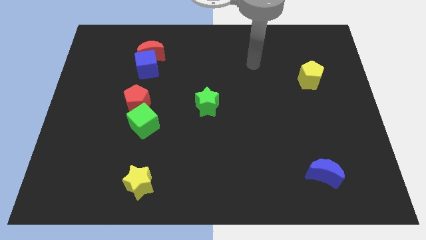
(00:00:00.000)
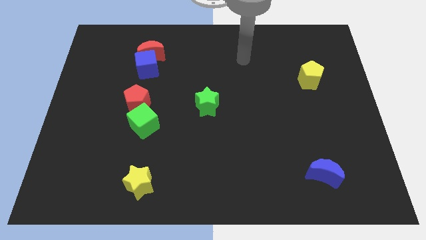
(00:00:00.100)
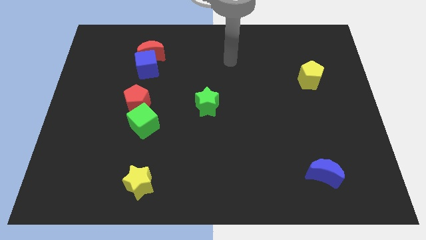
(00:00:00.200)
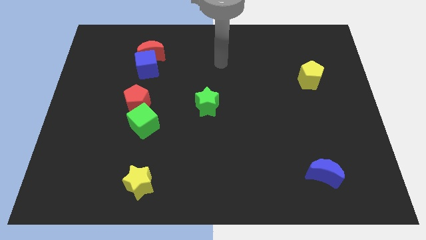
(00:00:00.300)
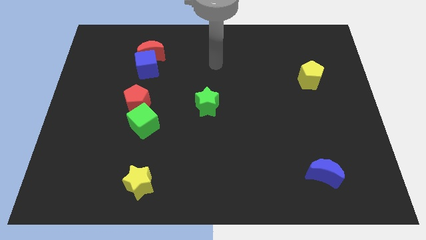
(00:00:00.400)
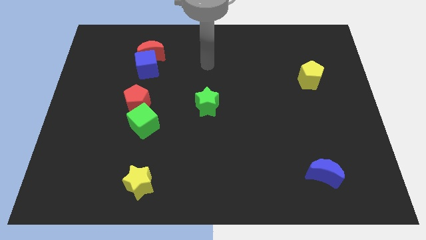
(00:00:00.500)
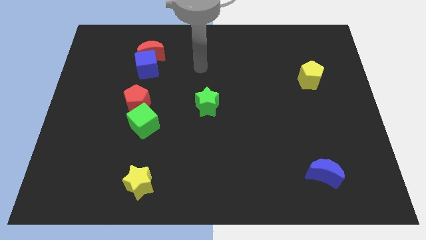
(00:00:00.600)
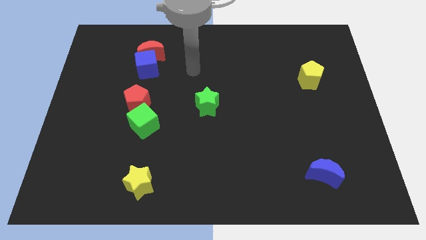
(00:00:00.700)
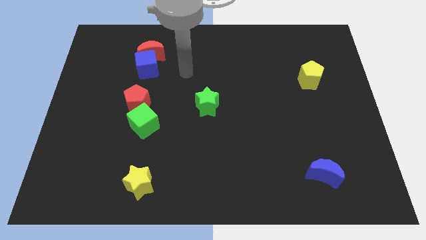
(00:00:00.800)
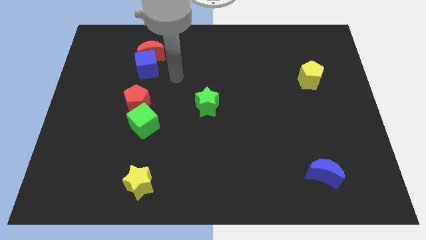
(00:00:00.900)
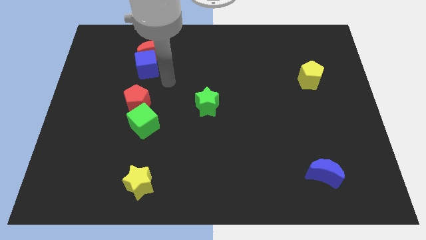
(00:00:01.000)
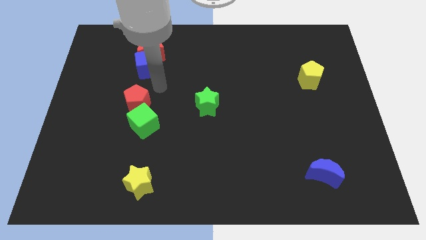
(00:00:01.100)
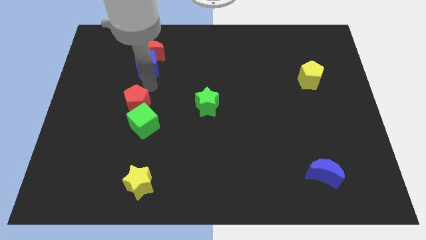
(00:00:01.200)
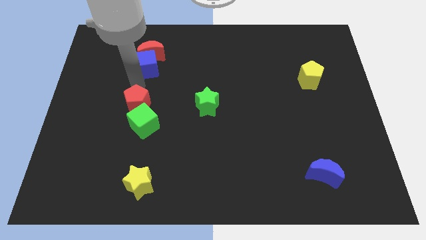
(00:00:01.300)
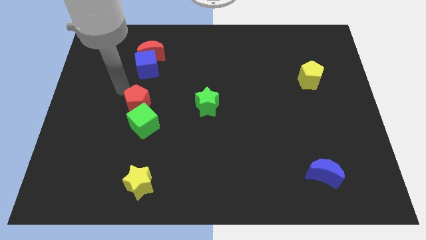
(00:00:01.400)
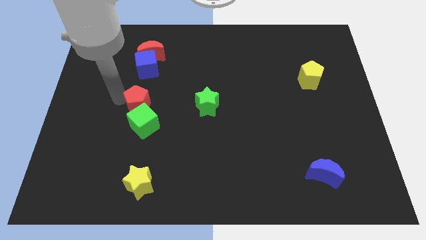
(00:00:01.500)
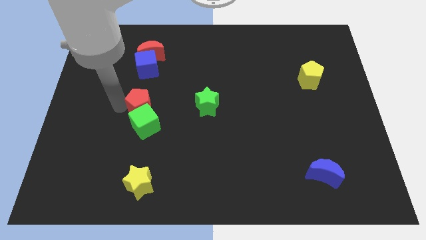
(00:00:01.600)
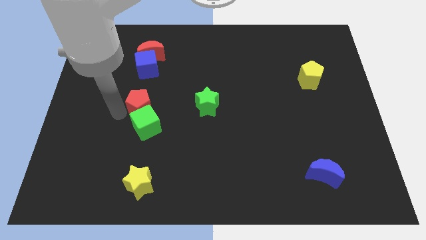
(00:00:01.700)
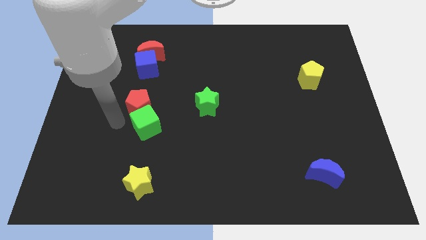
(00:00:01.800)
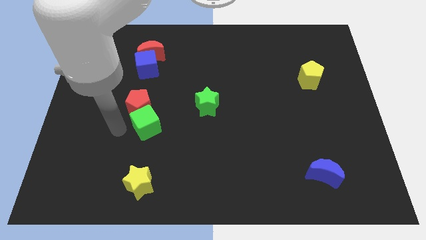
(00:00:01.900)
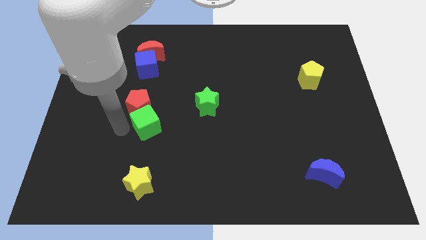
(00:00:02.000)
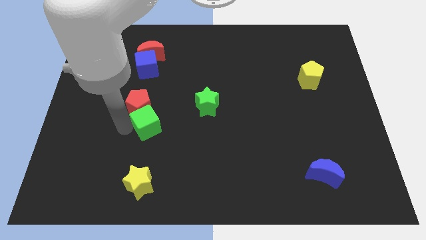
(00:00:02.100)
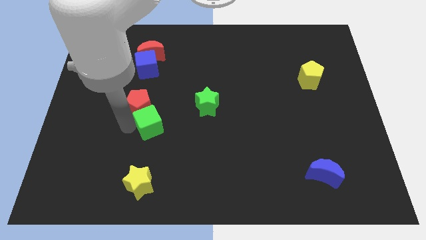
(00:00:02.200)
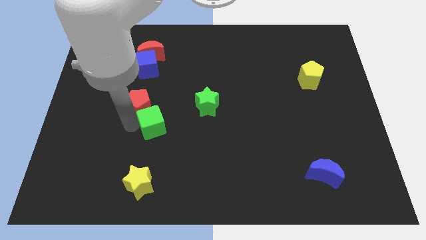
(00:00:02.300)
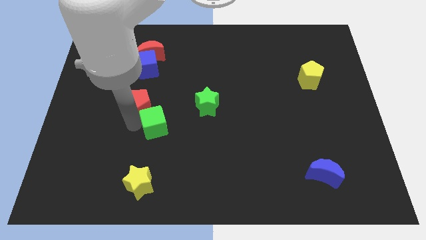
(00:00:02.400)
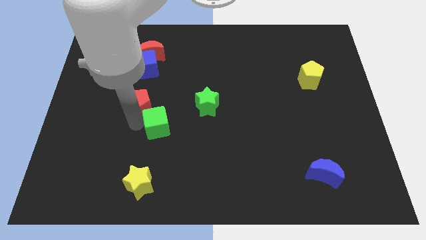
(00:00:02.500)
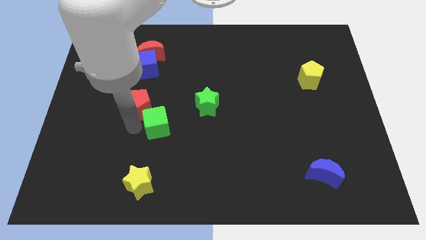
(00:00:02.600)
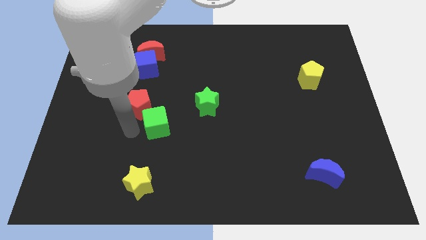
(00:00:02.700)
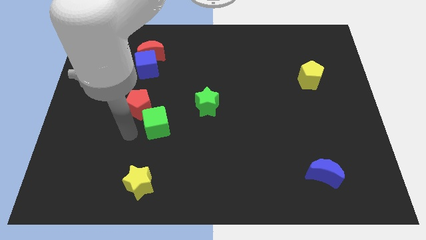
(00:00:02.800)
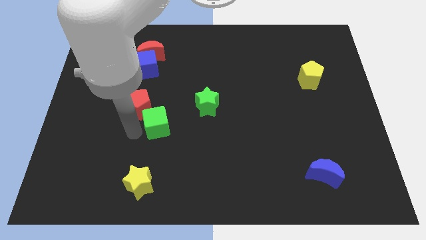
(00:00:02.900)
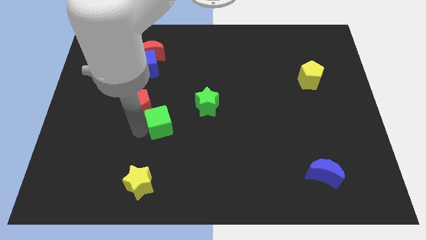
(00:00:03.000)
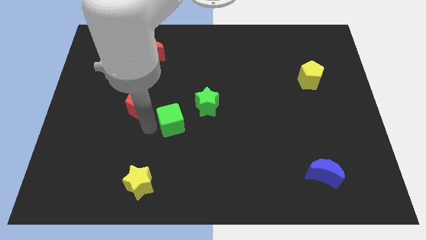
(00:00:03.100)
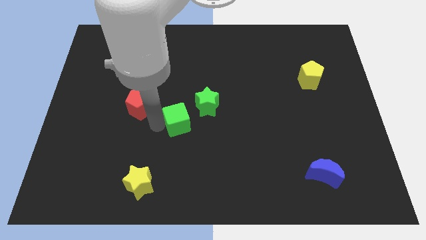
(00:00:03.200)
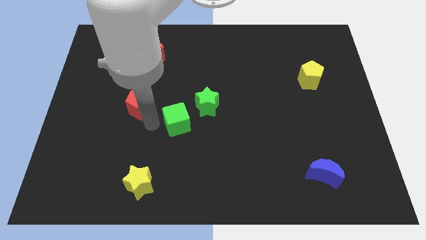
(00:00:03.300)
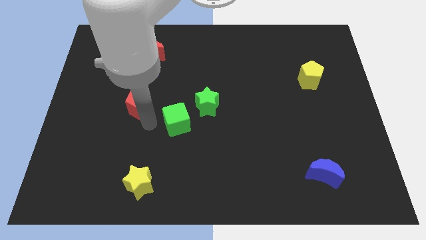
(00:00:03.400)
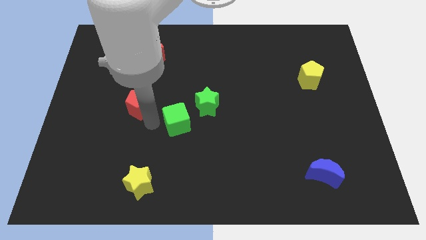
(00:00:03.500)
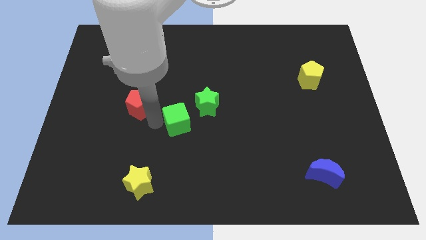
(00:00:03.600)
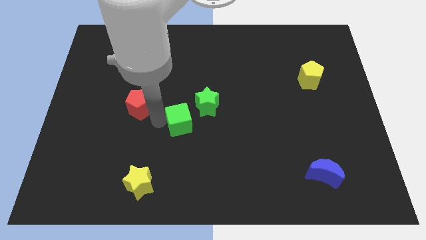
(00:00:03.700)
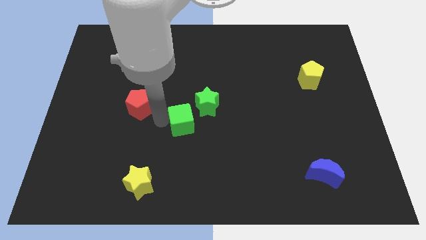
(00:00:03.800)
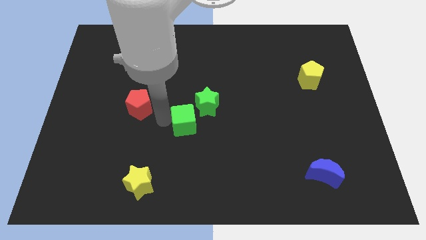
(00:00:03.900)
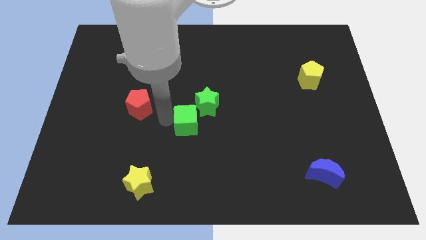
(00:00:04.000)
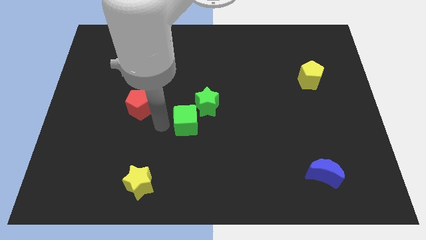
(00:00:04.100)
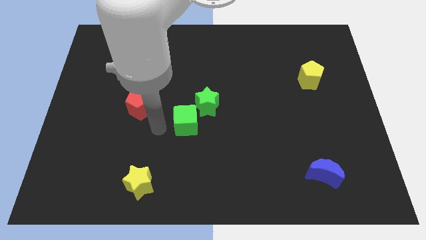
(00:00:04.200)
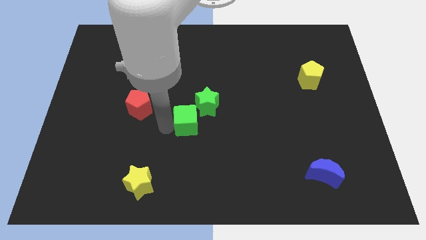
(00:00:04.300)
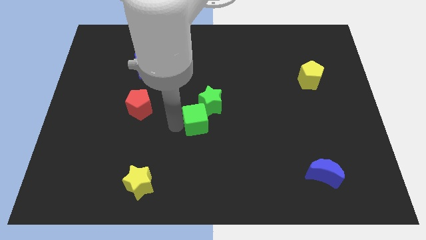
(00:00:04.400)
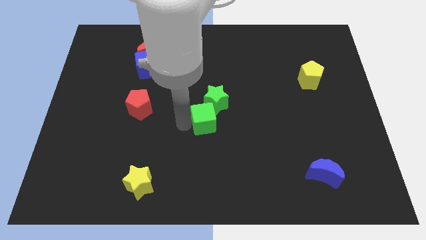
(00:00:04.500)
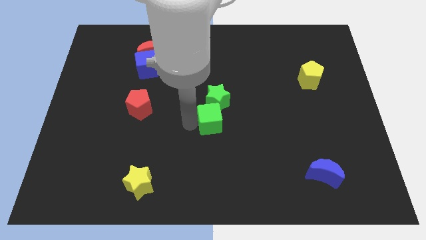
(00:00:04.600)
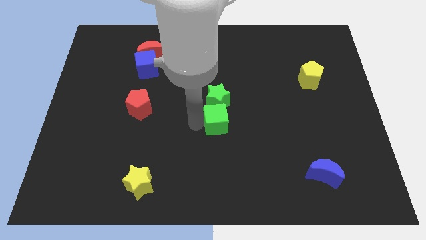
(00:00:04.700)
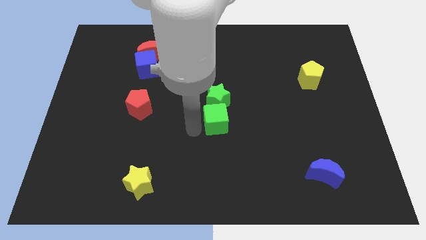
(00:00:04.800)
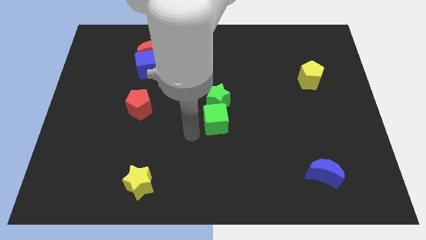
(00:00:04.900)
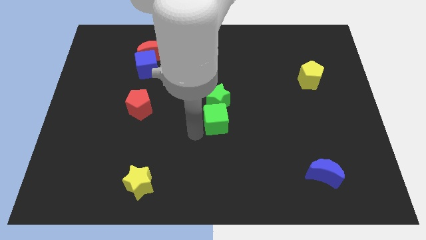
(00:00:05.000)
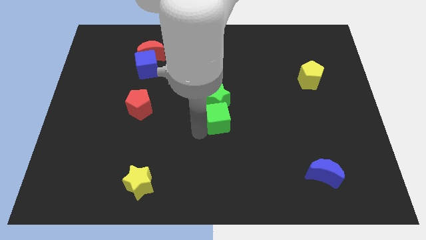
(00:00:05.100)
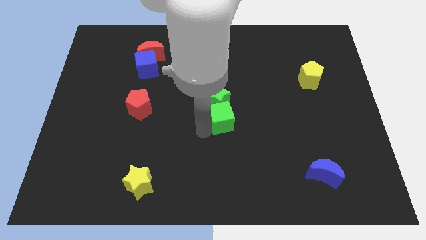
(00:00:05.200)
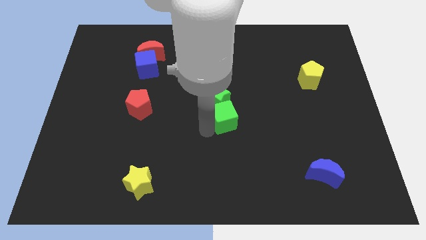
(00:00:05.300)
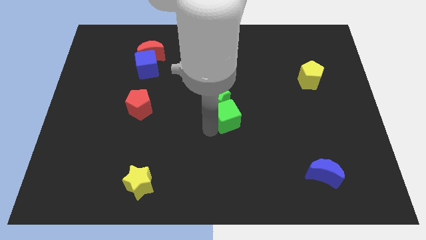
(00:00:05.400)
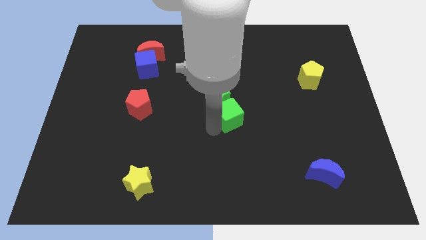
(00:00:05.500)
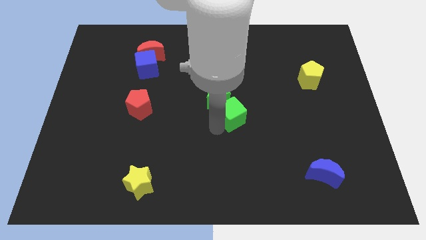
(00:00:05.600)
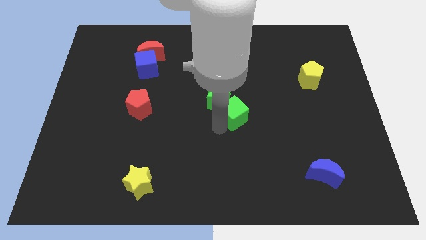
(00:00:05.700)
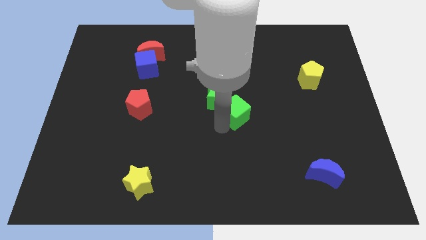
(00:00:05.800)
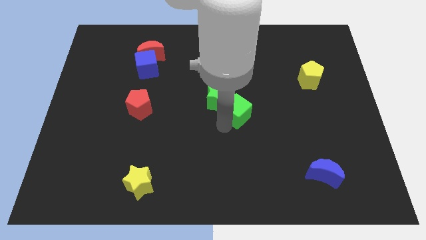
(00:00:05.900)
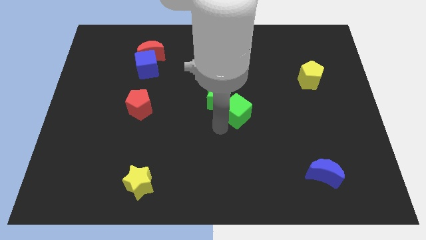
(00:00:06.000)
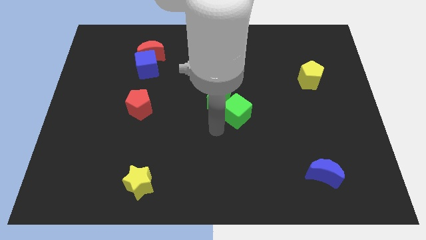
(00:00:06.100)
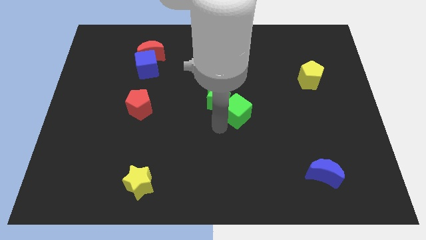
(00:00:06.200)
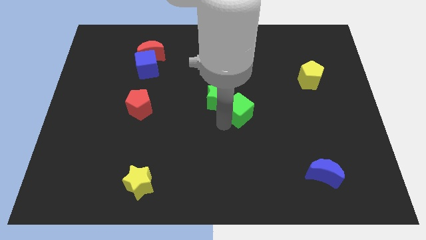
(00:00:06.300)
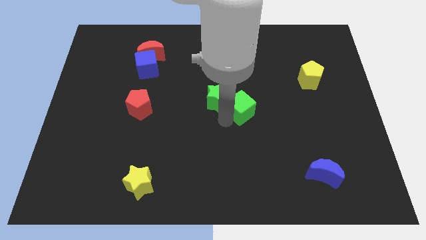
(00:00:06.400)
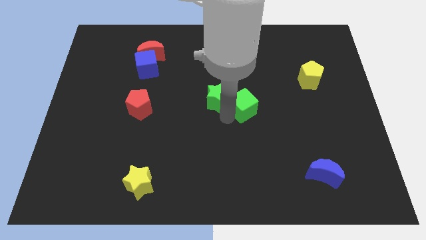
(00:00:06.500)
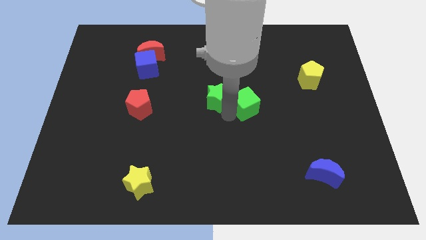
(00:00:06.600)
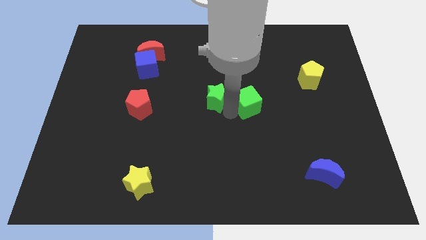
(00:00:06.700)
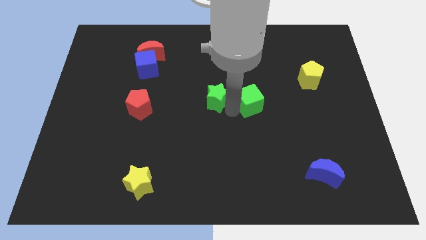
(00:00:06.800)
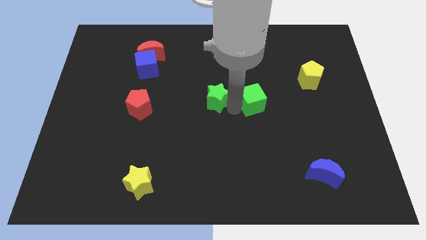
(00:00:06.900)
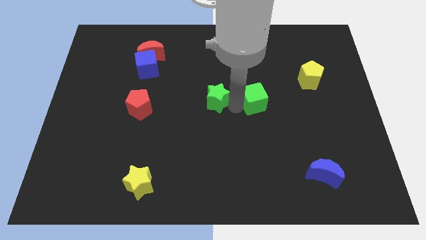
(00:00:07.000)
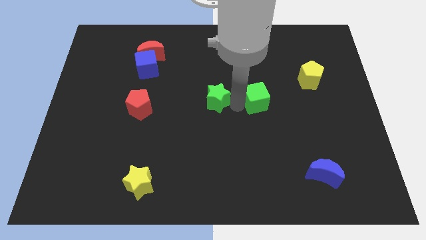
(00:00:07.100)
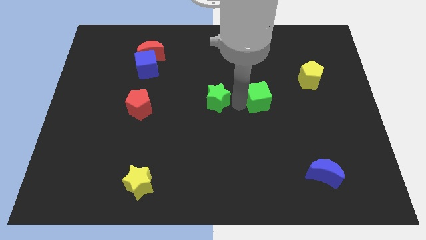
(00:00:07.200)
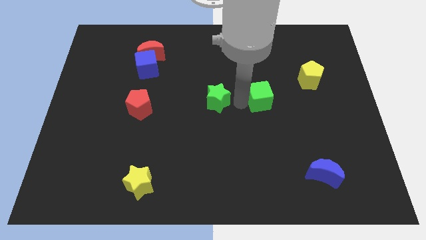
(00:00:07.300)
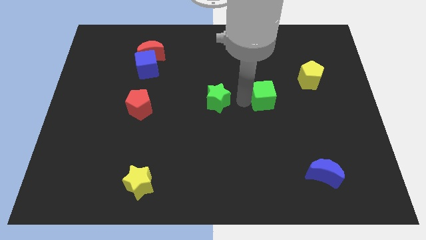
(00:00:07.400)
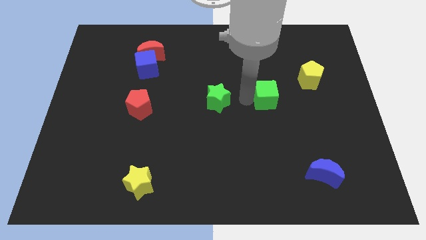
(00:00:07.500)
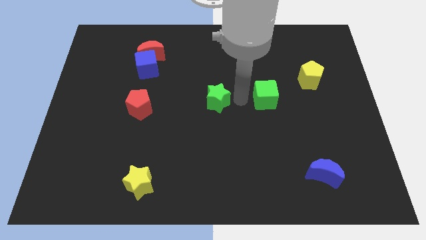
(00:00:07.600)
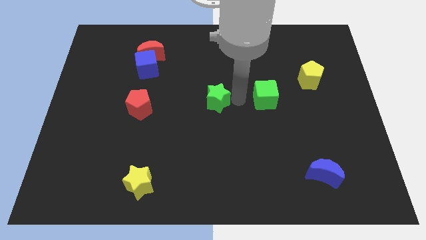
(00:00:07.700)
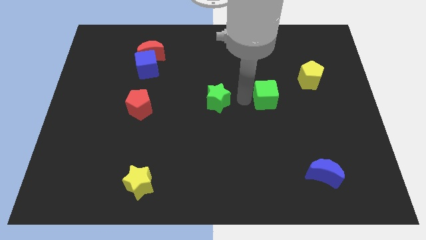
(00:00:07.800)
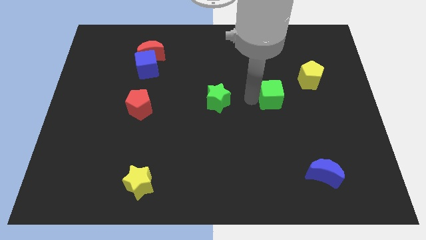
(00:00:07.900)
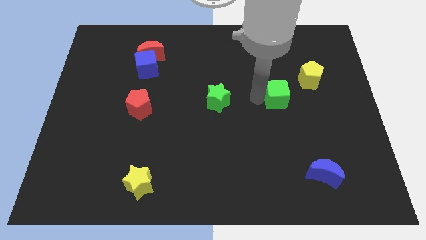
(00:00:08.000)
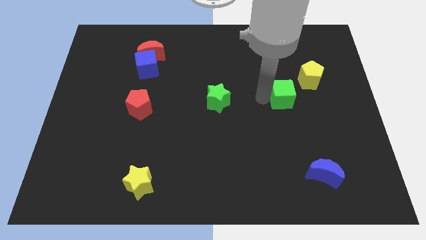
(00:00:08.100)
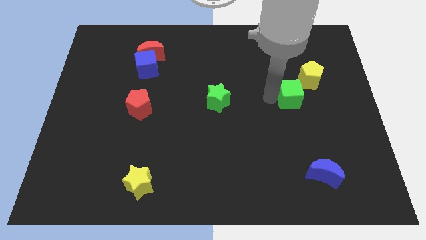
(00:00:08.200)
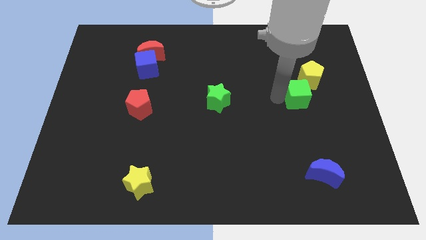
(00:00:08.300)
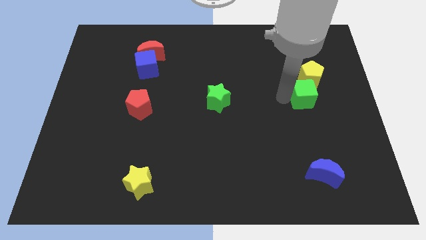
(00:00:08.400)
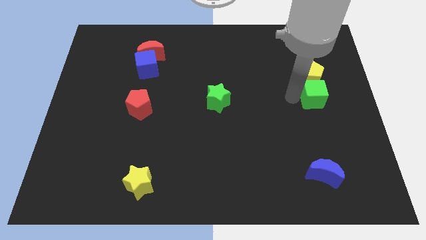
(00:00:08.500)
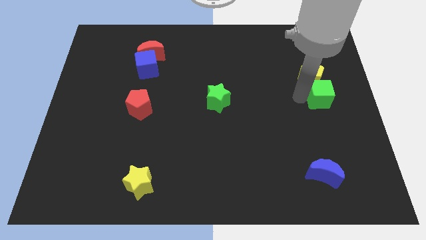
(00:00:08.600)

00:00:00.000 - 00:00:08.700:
push the green cube to the center right
